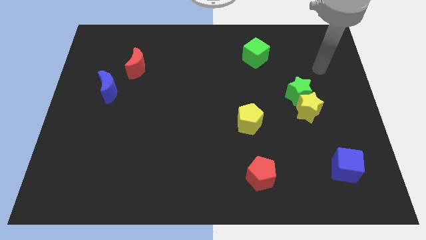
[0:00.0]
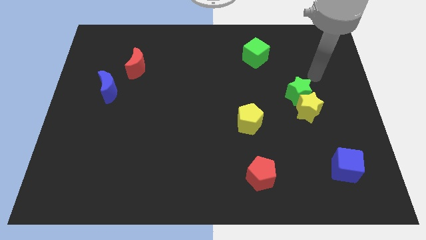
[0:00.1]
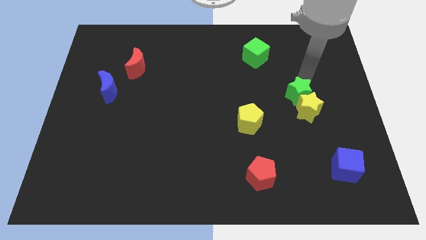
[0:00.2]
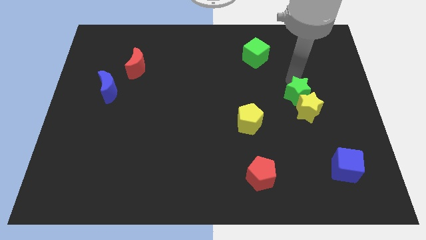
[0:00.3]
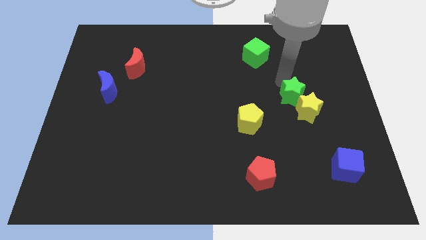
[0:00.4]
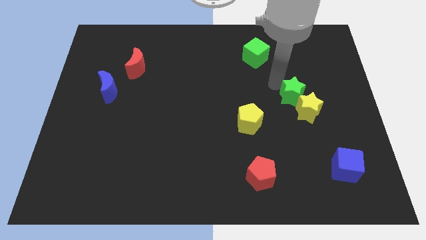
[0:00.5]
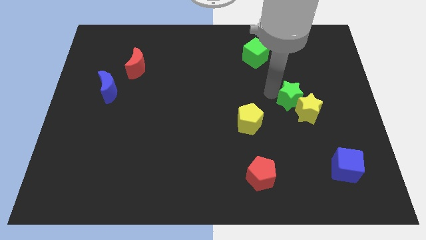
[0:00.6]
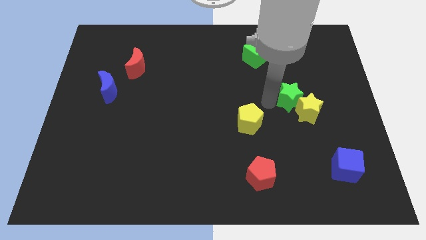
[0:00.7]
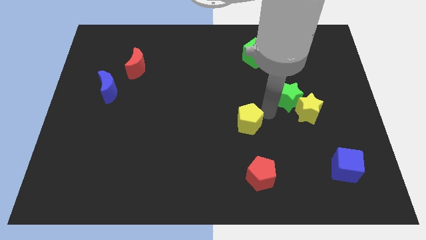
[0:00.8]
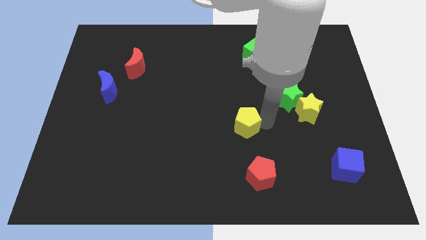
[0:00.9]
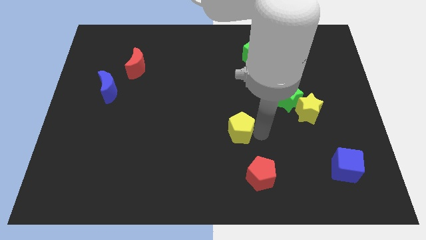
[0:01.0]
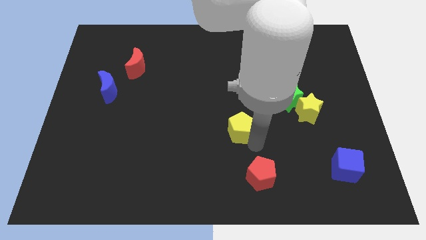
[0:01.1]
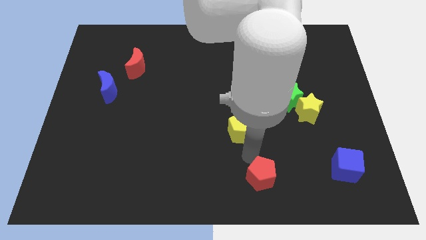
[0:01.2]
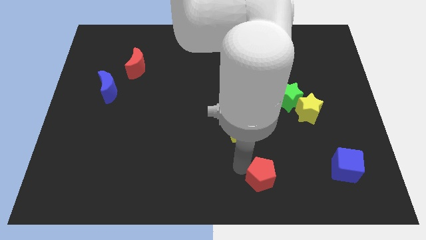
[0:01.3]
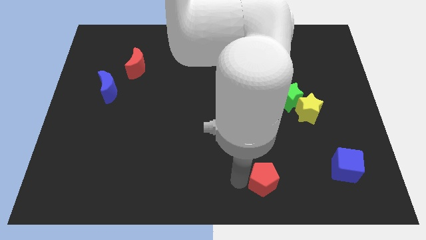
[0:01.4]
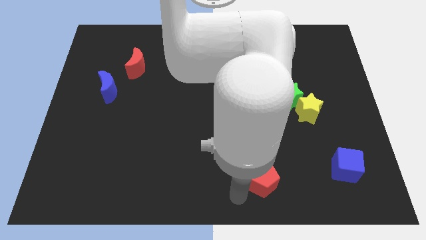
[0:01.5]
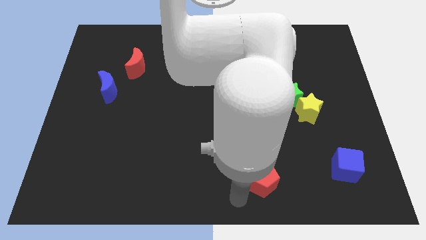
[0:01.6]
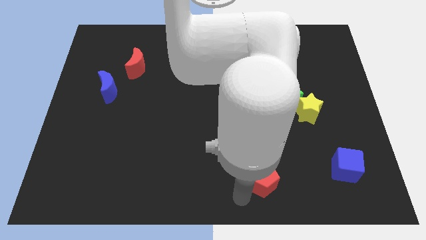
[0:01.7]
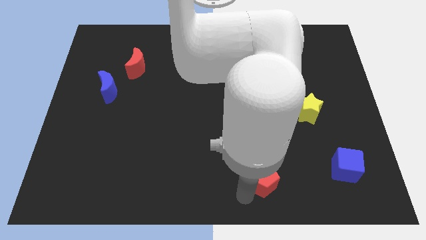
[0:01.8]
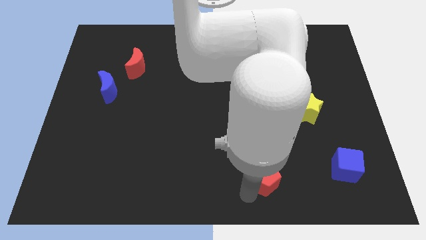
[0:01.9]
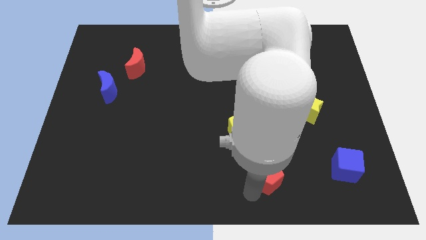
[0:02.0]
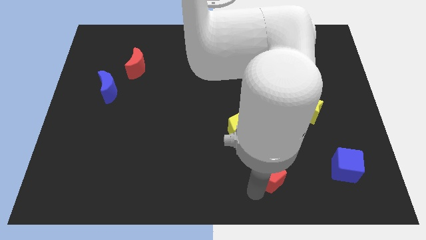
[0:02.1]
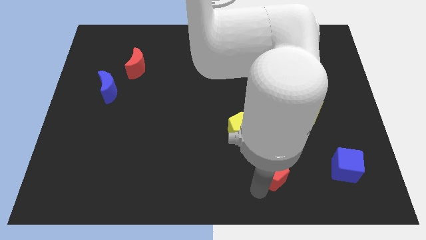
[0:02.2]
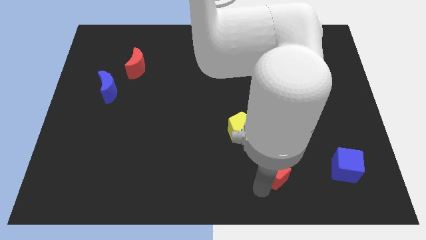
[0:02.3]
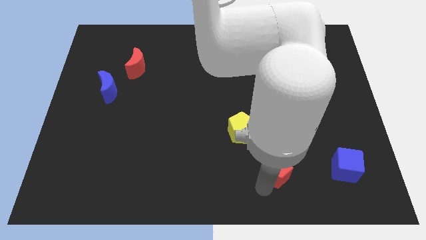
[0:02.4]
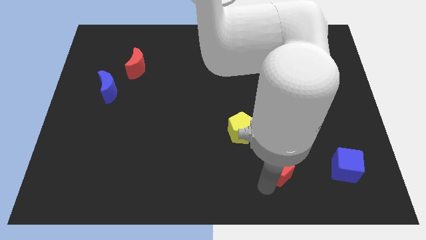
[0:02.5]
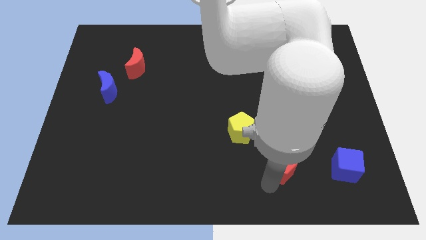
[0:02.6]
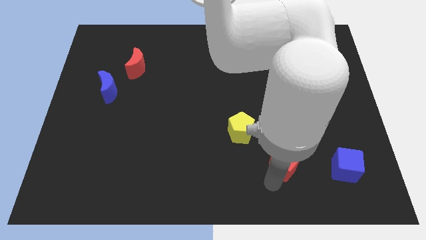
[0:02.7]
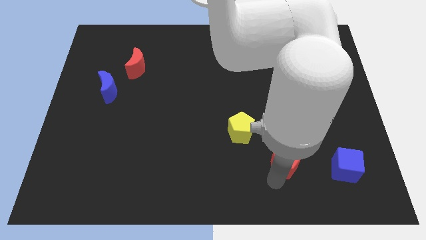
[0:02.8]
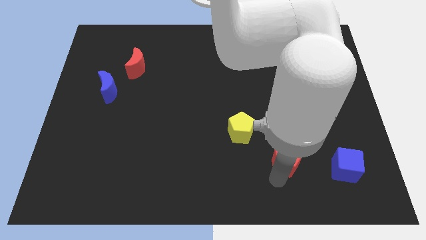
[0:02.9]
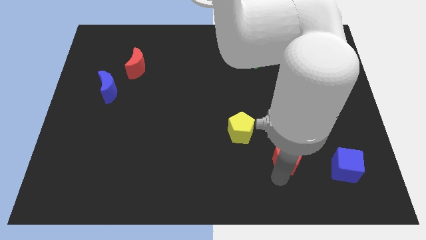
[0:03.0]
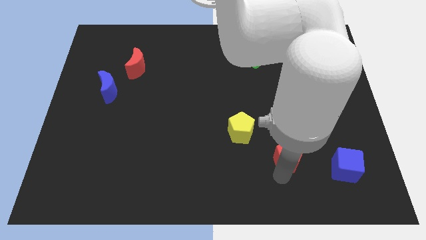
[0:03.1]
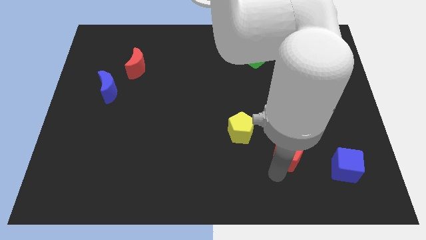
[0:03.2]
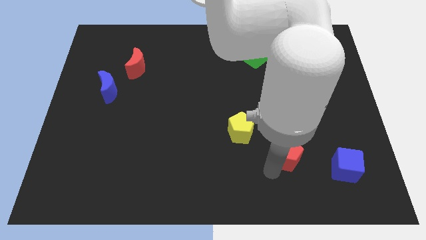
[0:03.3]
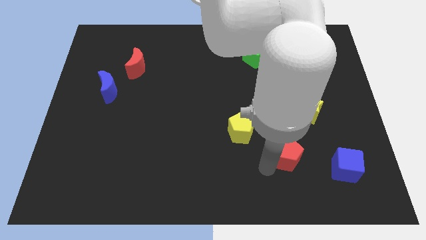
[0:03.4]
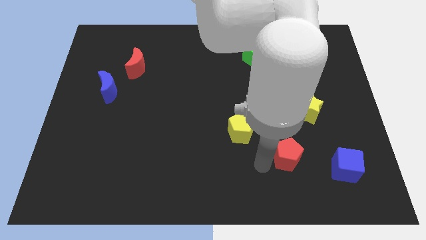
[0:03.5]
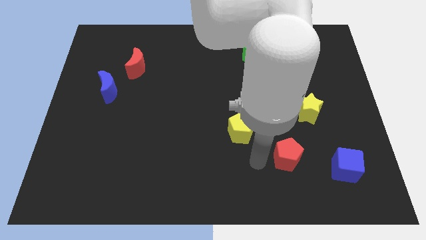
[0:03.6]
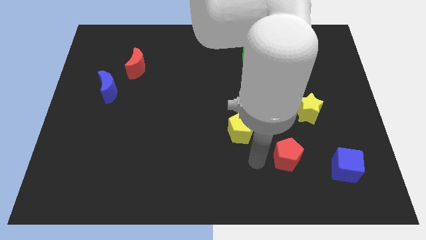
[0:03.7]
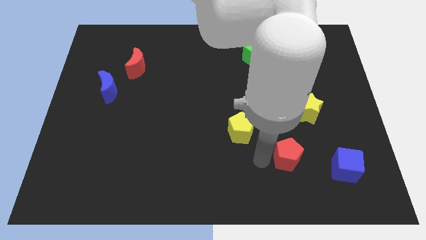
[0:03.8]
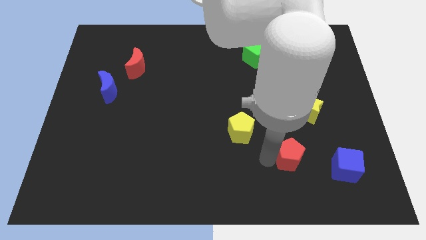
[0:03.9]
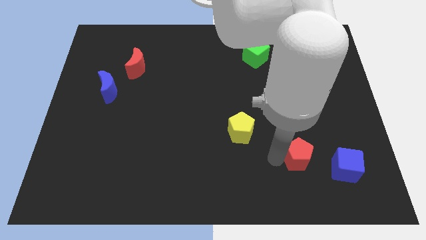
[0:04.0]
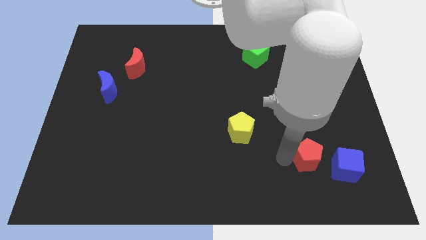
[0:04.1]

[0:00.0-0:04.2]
push the red pentagon to the top left of the blue cube

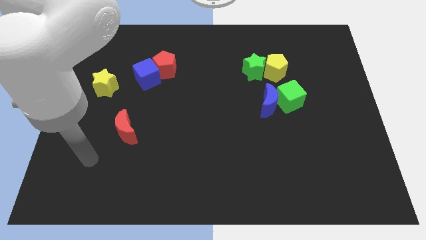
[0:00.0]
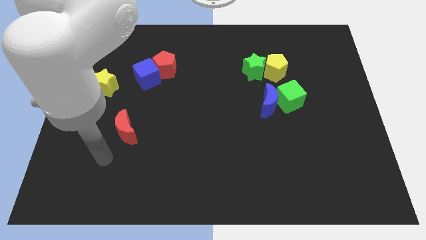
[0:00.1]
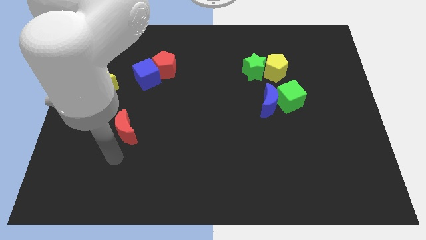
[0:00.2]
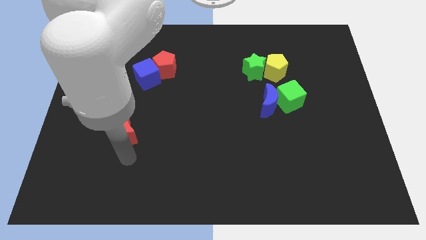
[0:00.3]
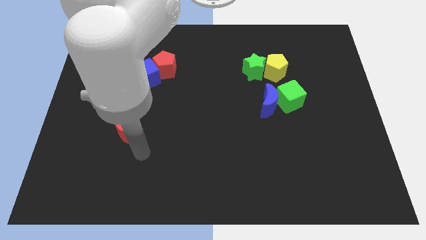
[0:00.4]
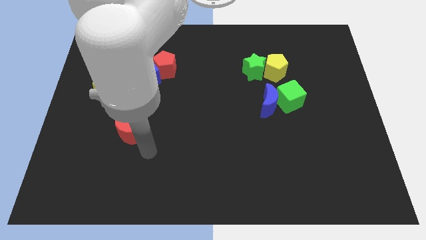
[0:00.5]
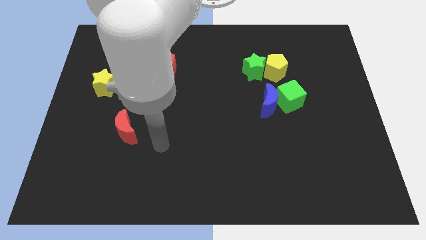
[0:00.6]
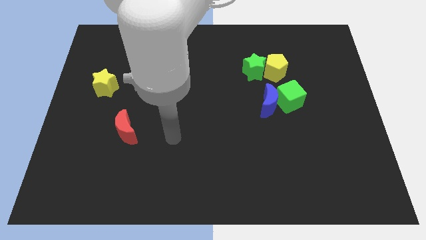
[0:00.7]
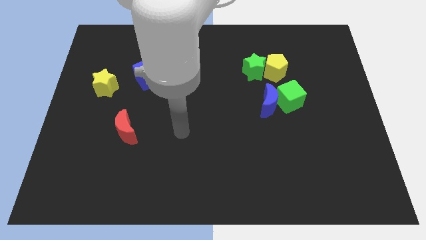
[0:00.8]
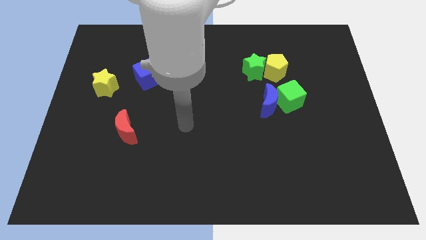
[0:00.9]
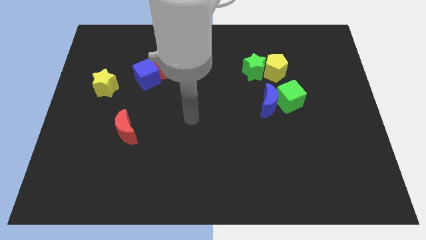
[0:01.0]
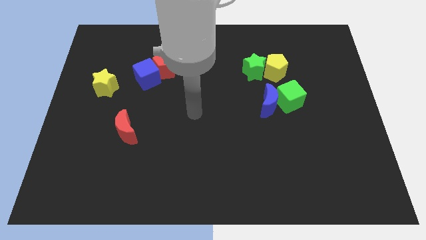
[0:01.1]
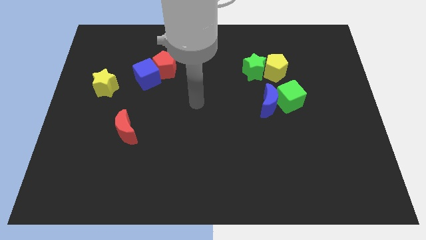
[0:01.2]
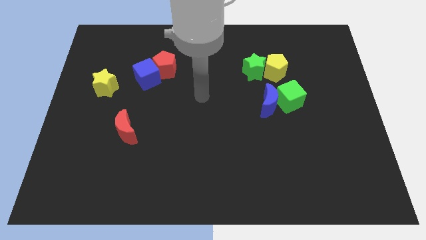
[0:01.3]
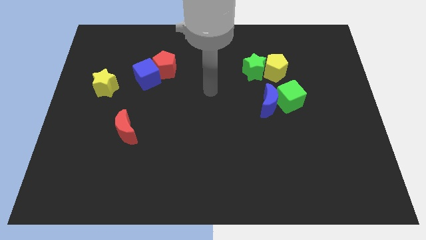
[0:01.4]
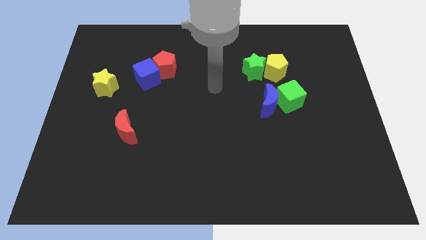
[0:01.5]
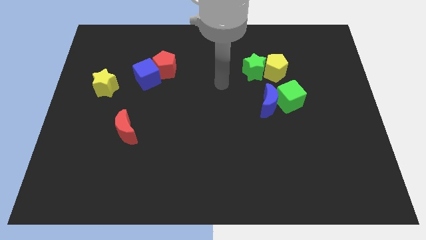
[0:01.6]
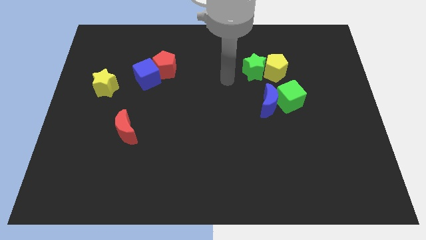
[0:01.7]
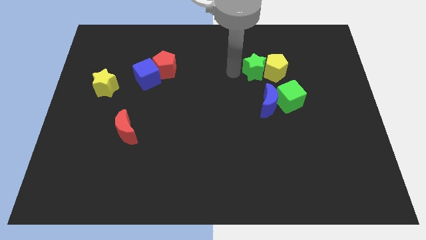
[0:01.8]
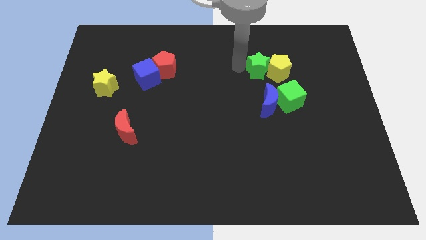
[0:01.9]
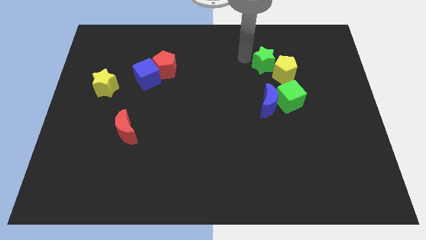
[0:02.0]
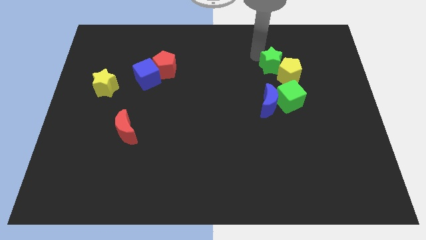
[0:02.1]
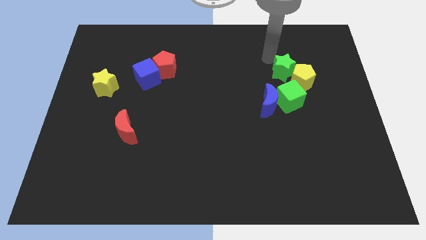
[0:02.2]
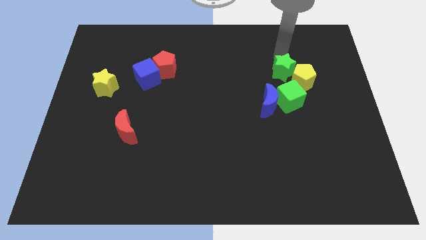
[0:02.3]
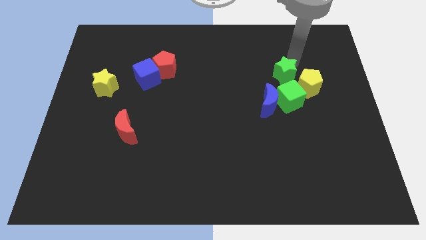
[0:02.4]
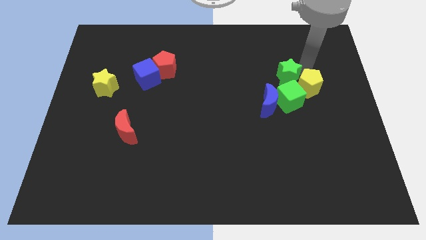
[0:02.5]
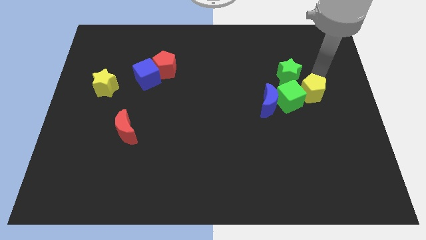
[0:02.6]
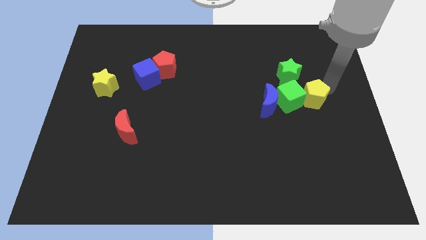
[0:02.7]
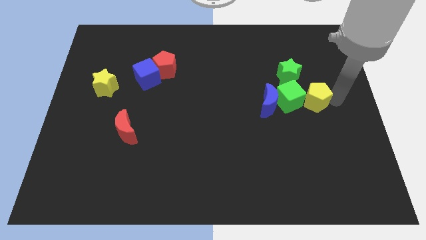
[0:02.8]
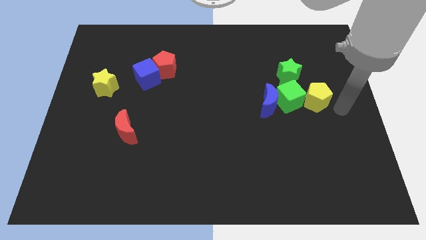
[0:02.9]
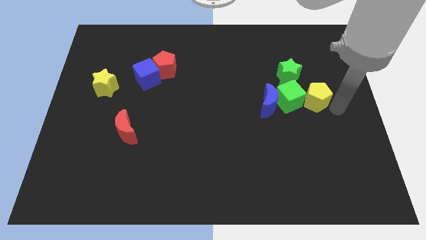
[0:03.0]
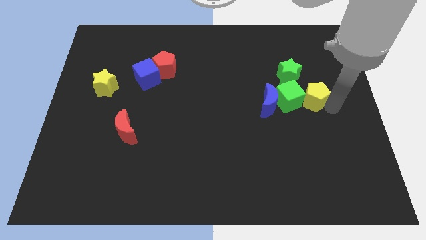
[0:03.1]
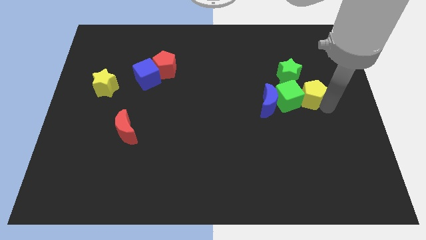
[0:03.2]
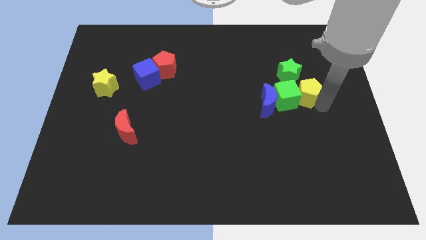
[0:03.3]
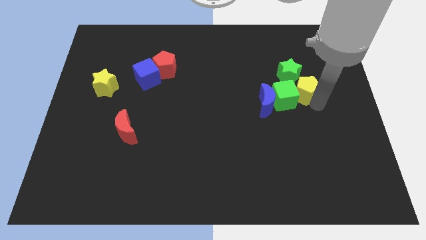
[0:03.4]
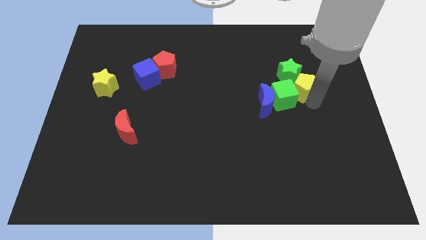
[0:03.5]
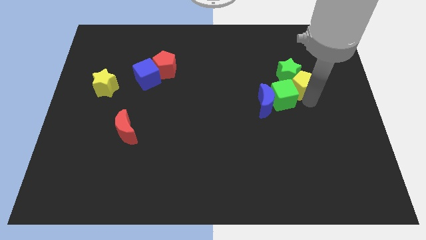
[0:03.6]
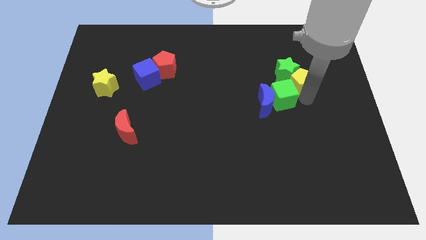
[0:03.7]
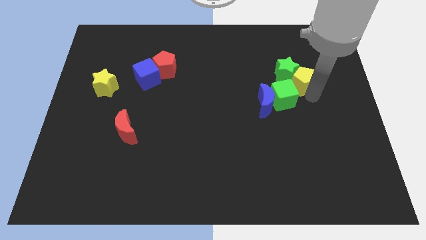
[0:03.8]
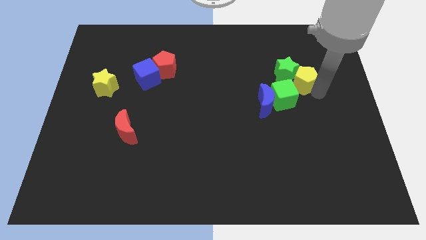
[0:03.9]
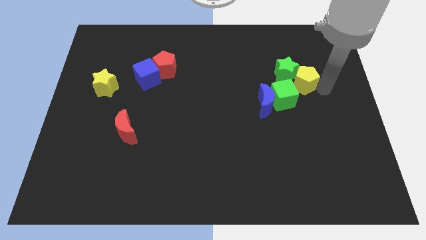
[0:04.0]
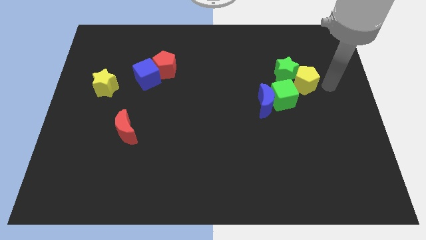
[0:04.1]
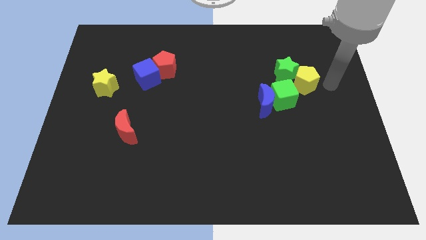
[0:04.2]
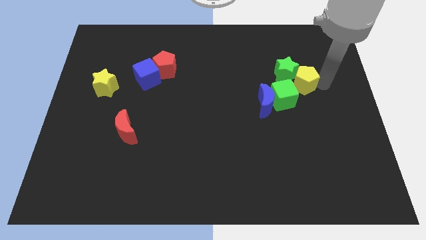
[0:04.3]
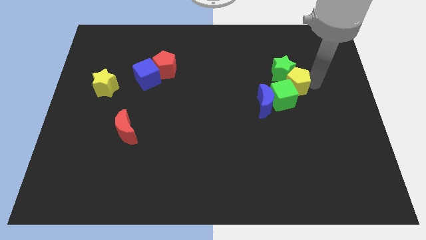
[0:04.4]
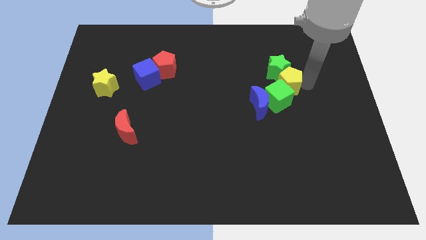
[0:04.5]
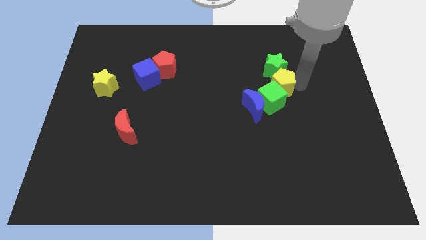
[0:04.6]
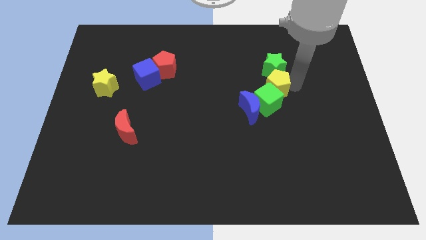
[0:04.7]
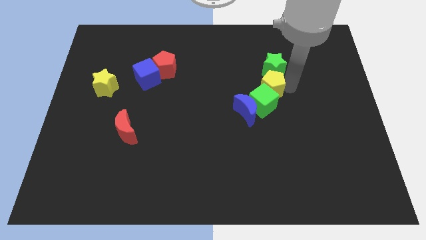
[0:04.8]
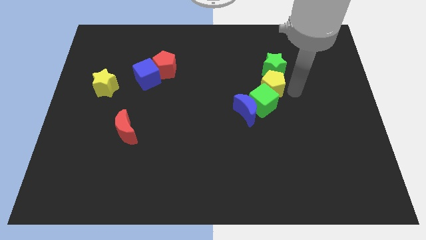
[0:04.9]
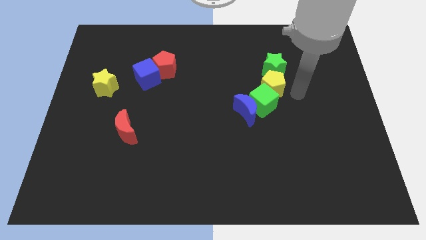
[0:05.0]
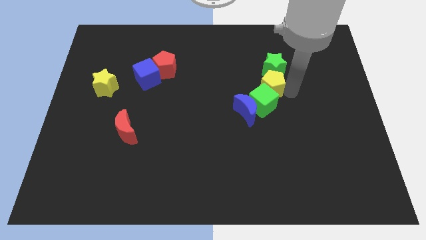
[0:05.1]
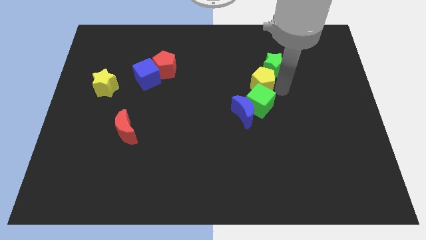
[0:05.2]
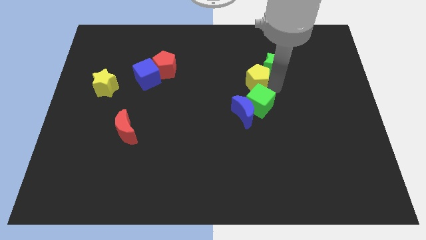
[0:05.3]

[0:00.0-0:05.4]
slide the yellow pentagon to the left of the green star
